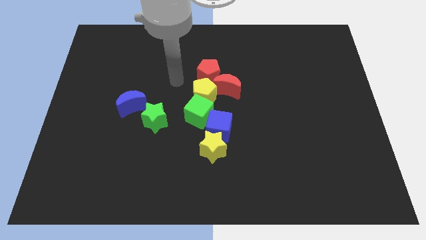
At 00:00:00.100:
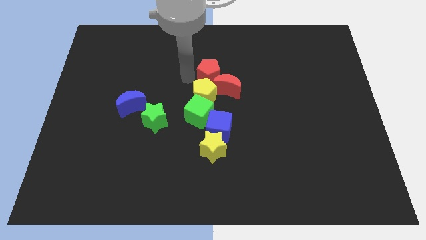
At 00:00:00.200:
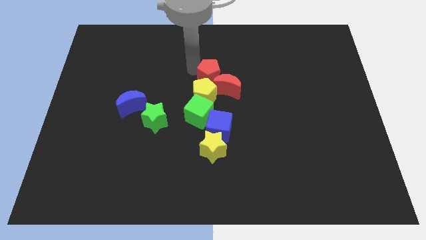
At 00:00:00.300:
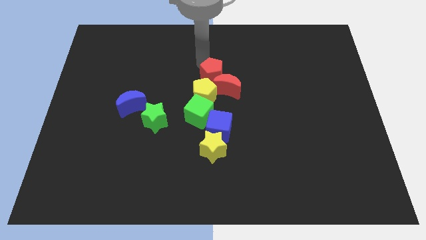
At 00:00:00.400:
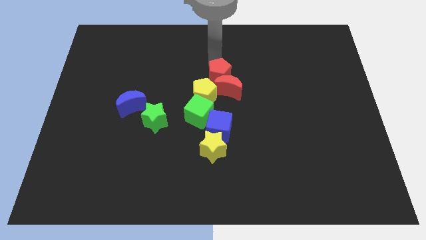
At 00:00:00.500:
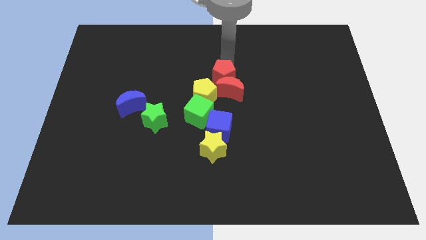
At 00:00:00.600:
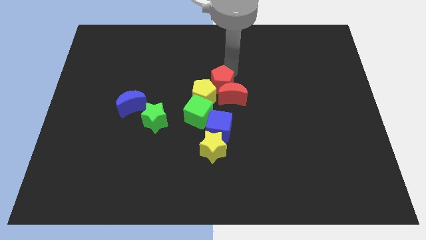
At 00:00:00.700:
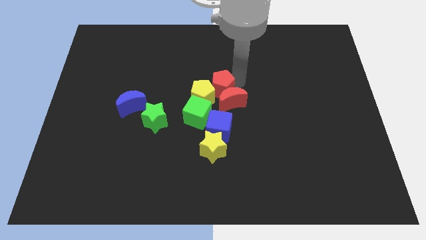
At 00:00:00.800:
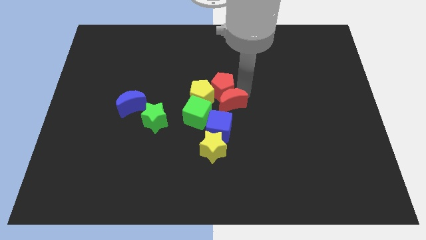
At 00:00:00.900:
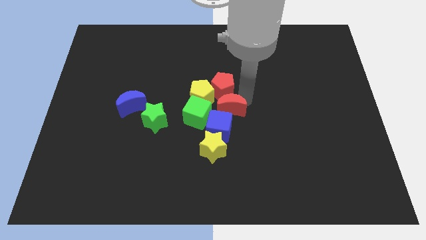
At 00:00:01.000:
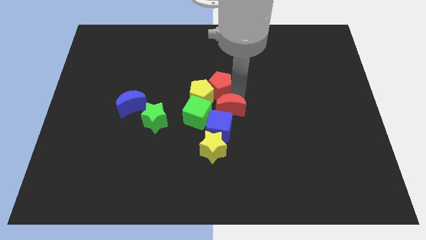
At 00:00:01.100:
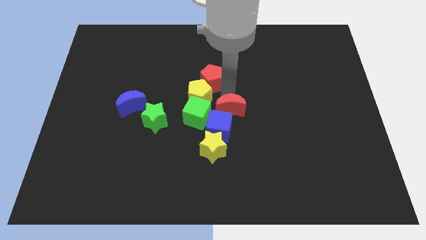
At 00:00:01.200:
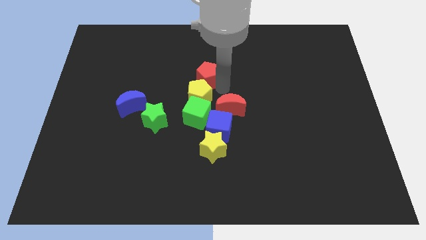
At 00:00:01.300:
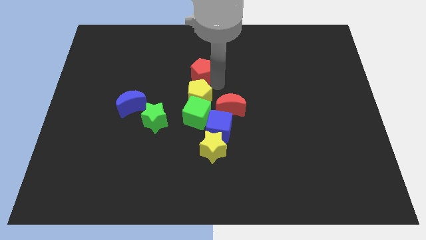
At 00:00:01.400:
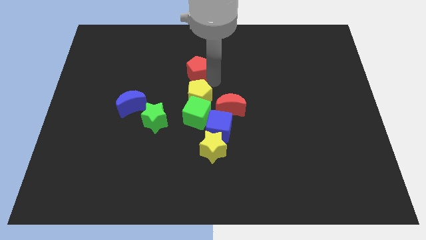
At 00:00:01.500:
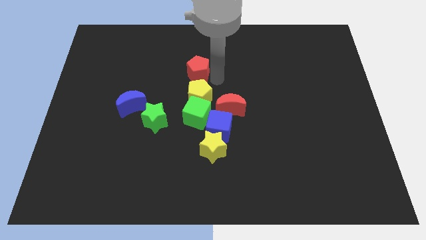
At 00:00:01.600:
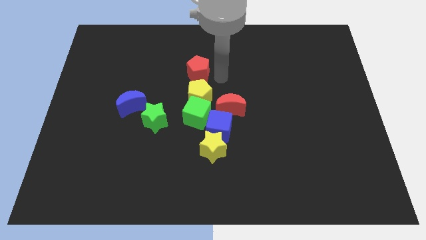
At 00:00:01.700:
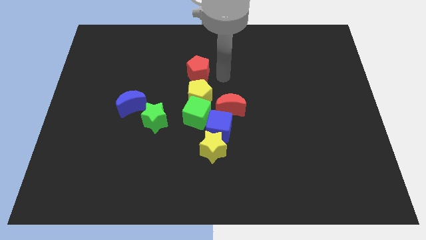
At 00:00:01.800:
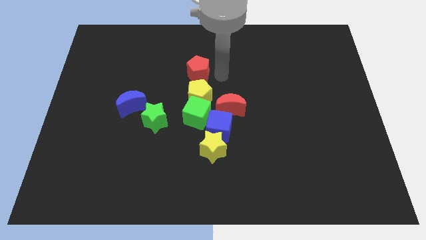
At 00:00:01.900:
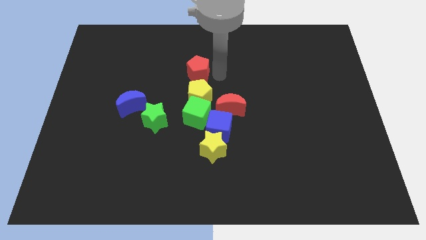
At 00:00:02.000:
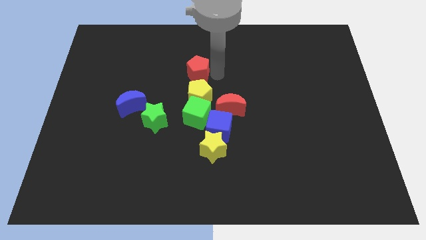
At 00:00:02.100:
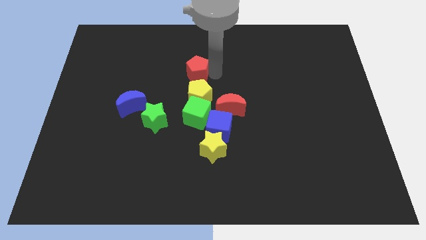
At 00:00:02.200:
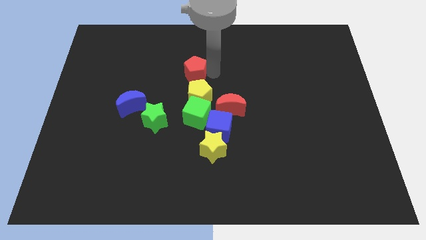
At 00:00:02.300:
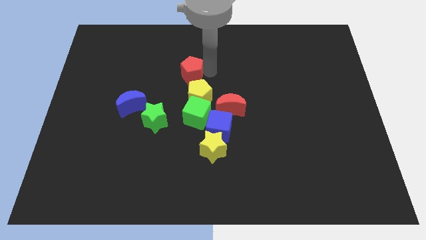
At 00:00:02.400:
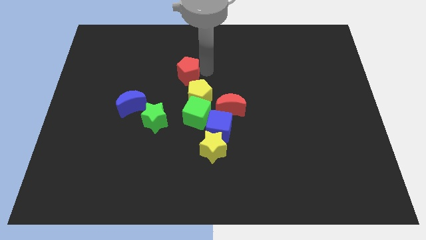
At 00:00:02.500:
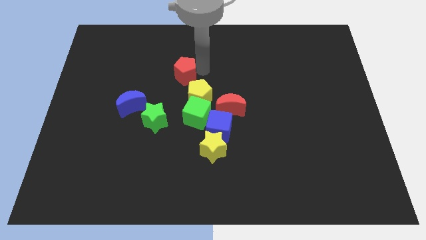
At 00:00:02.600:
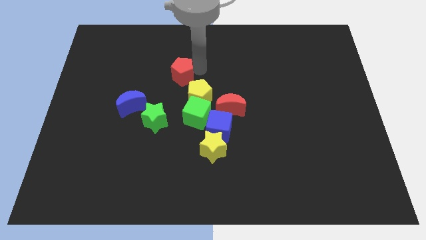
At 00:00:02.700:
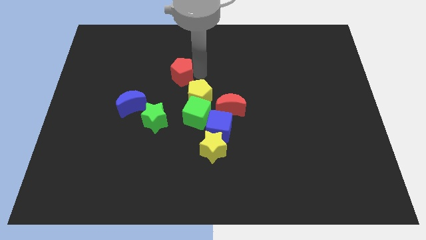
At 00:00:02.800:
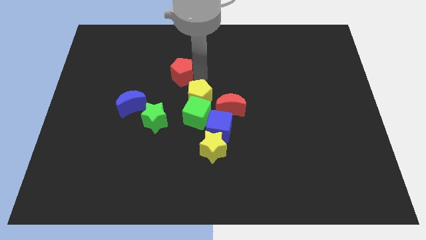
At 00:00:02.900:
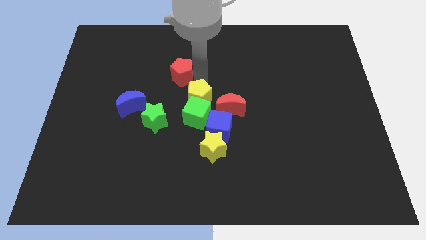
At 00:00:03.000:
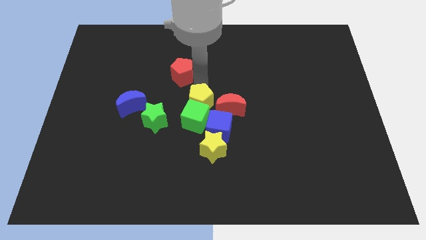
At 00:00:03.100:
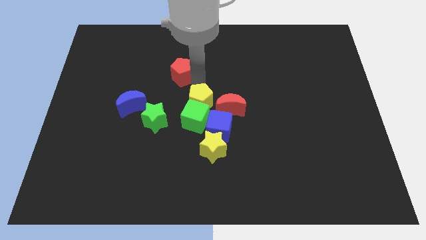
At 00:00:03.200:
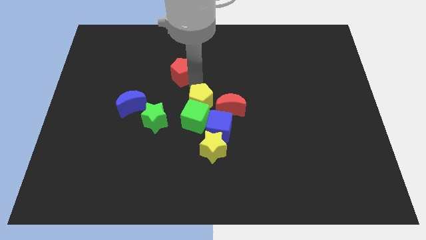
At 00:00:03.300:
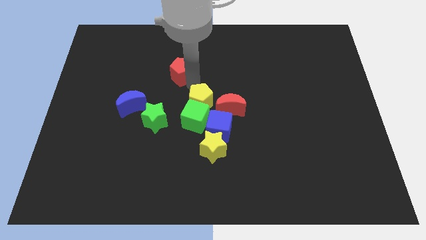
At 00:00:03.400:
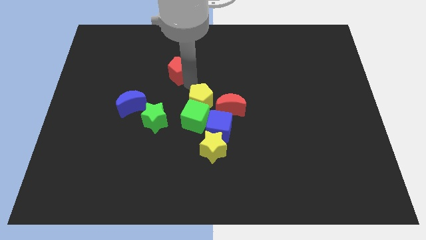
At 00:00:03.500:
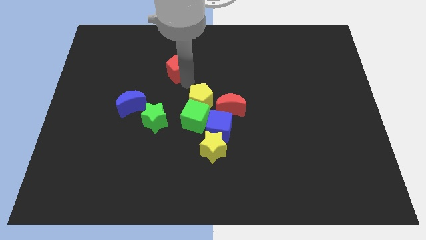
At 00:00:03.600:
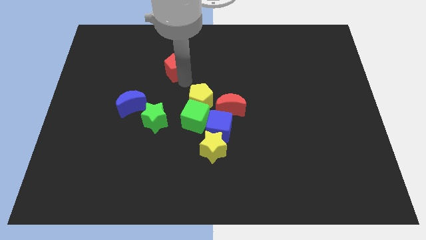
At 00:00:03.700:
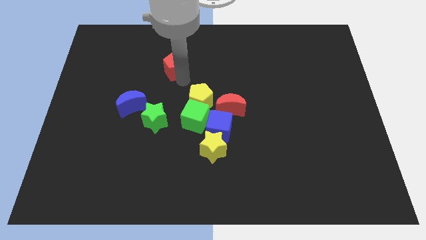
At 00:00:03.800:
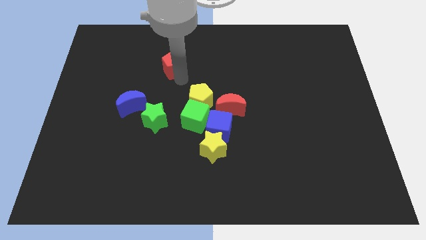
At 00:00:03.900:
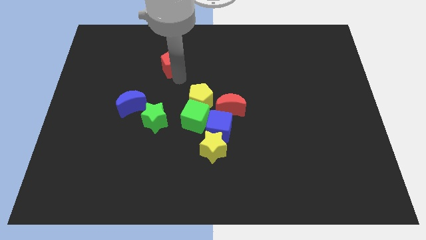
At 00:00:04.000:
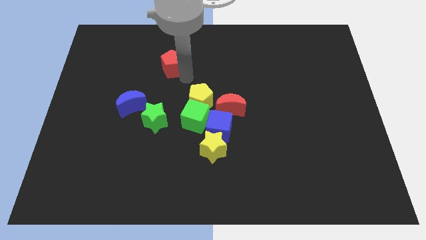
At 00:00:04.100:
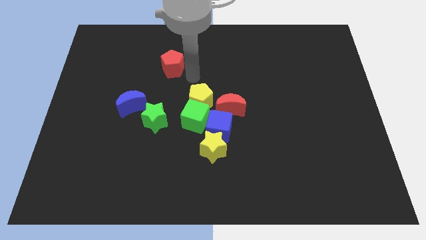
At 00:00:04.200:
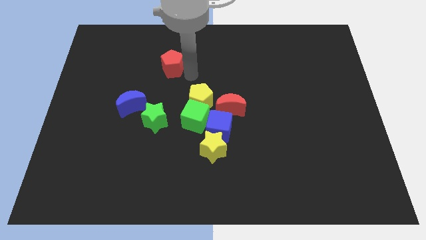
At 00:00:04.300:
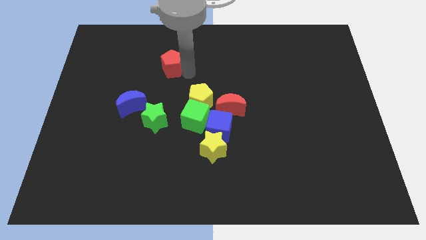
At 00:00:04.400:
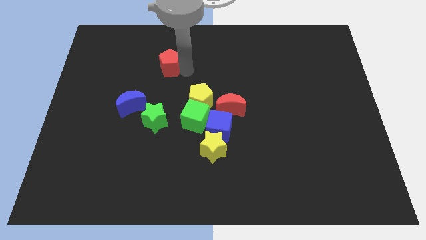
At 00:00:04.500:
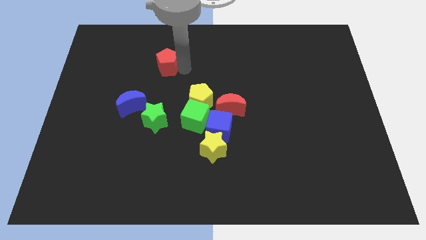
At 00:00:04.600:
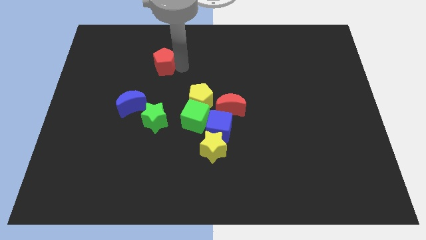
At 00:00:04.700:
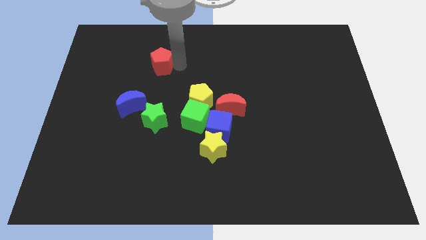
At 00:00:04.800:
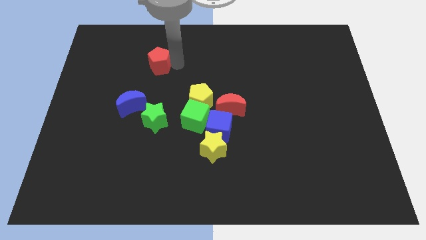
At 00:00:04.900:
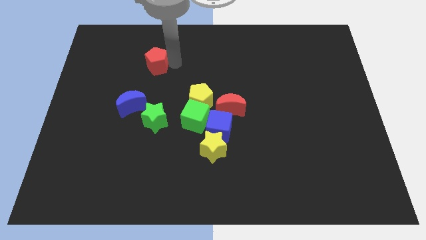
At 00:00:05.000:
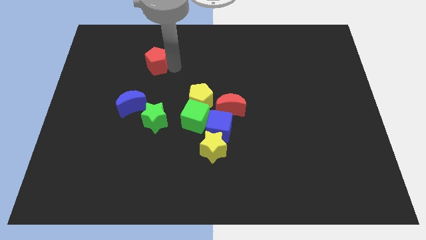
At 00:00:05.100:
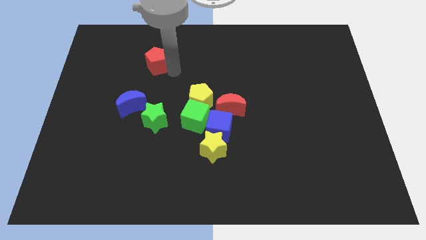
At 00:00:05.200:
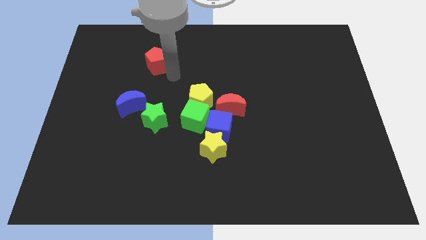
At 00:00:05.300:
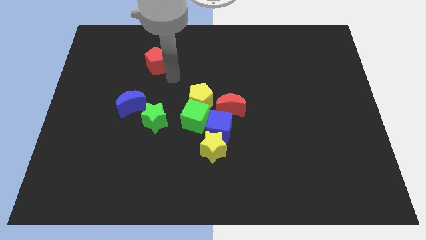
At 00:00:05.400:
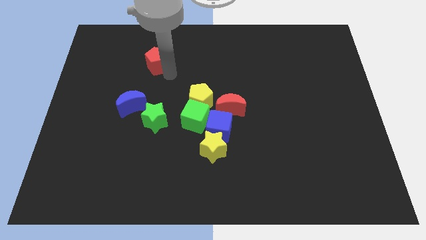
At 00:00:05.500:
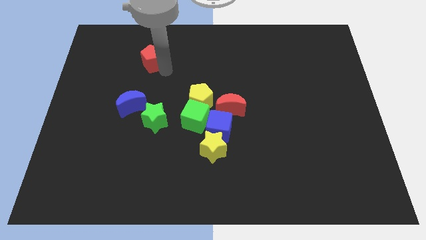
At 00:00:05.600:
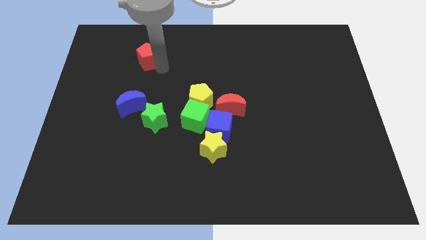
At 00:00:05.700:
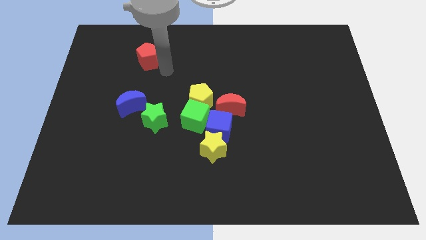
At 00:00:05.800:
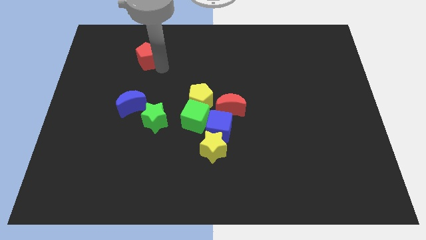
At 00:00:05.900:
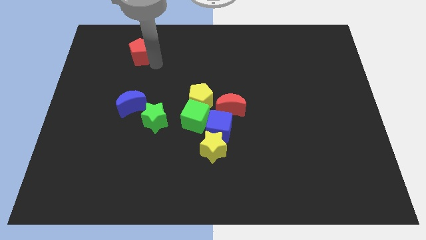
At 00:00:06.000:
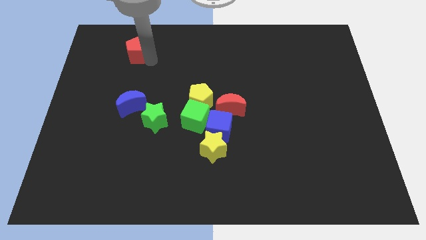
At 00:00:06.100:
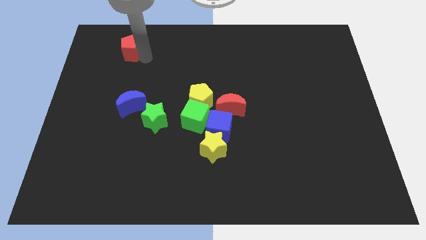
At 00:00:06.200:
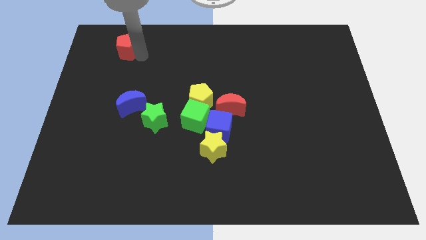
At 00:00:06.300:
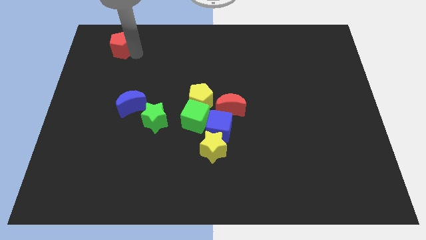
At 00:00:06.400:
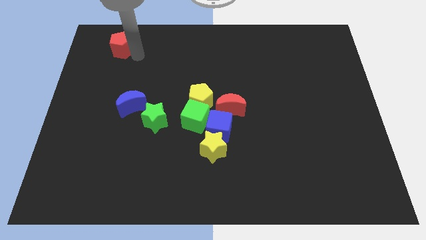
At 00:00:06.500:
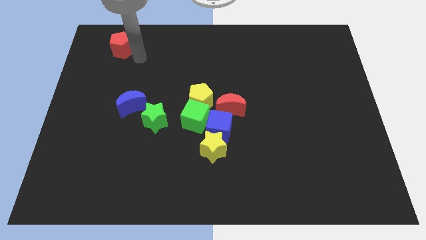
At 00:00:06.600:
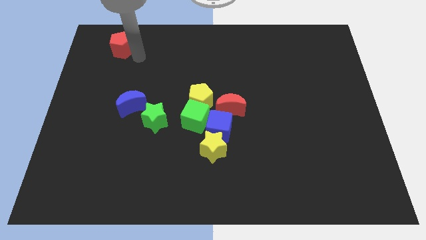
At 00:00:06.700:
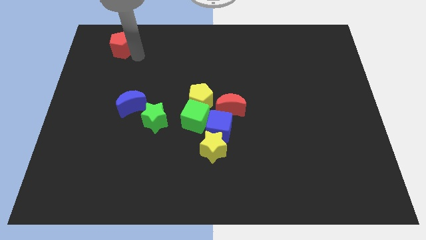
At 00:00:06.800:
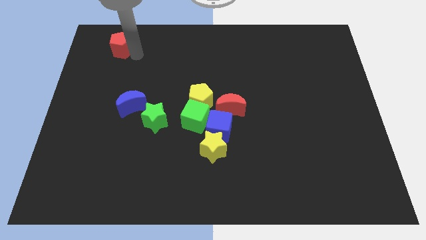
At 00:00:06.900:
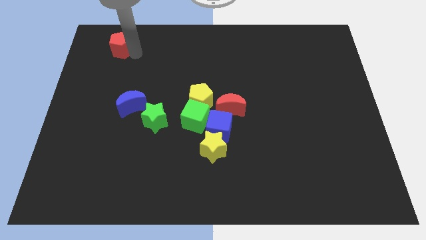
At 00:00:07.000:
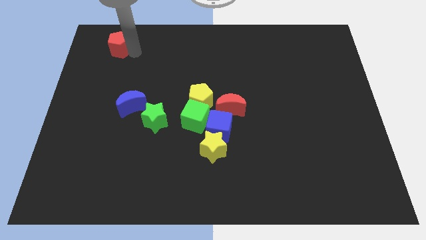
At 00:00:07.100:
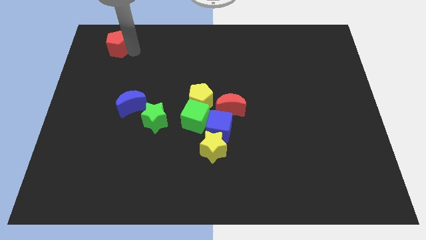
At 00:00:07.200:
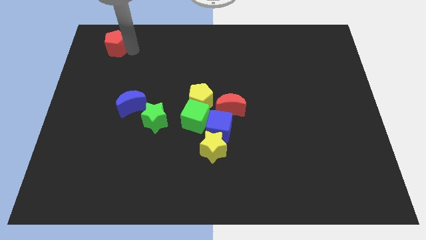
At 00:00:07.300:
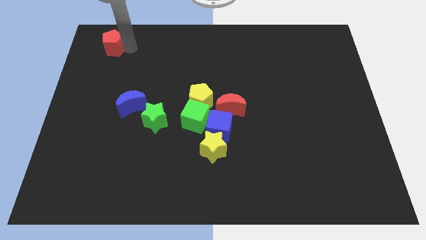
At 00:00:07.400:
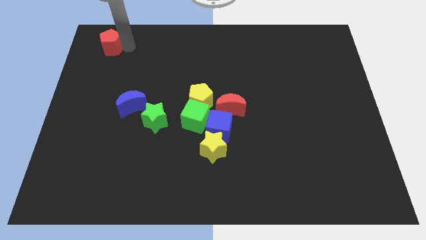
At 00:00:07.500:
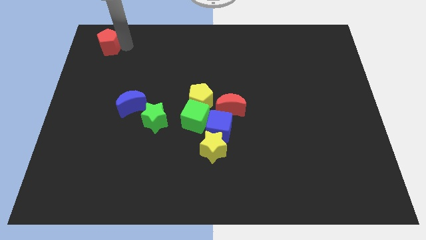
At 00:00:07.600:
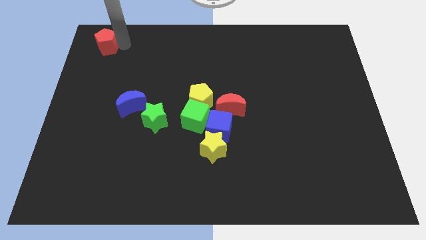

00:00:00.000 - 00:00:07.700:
slide the red pentagon to the top left
